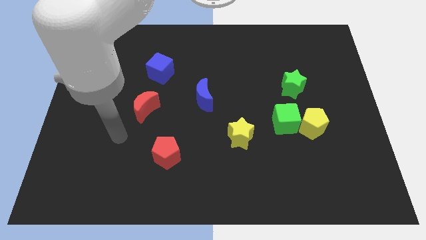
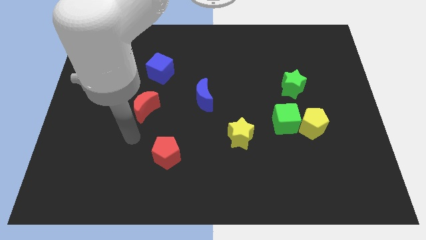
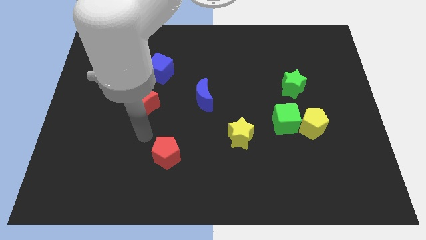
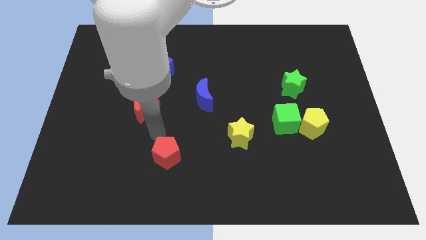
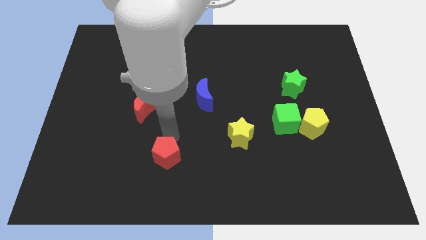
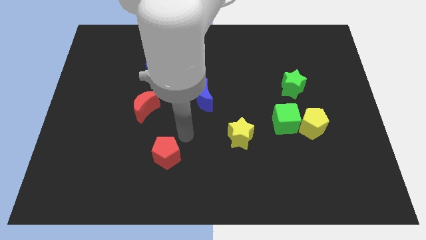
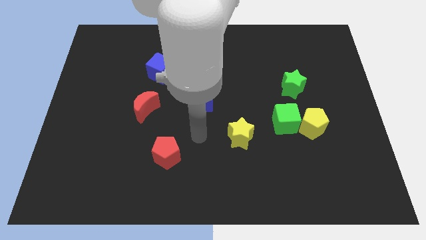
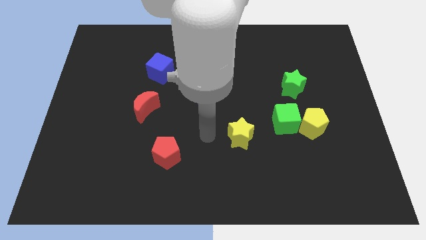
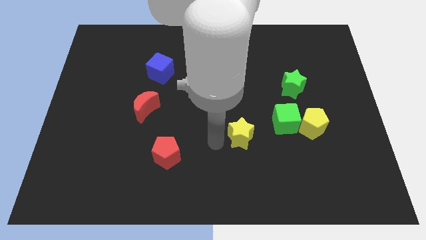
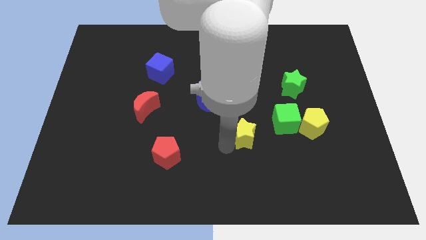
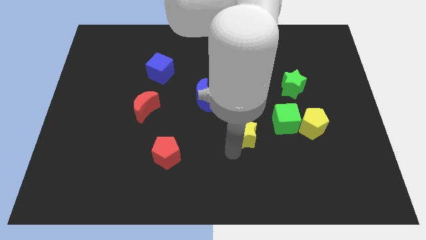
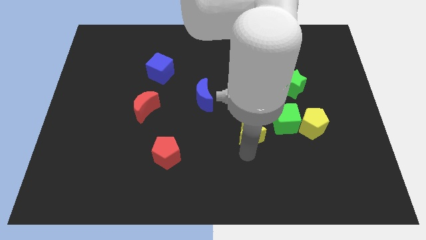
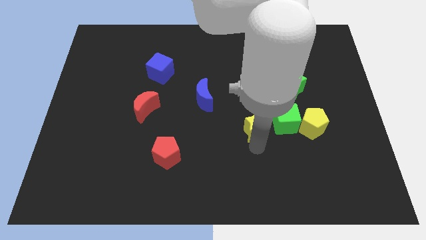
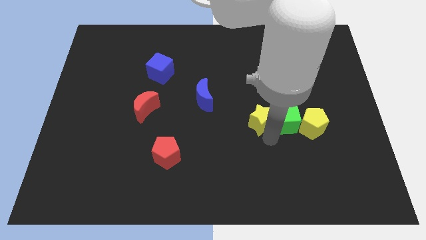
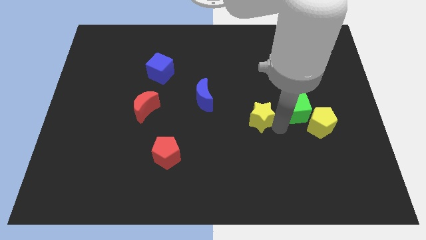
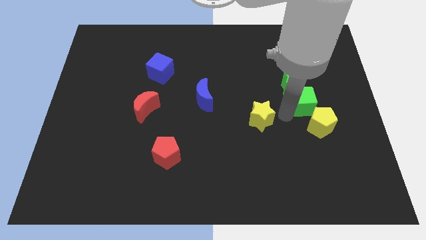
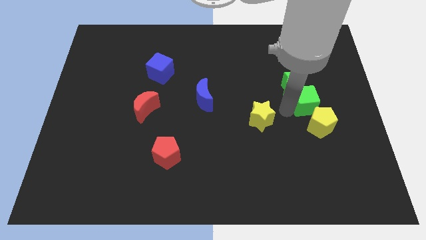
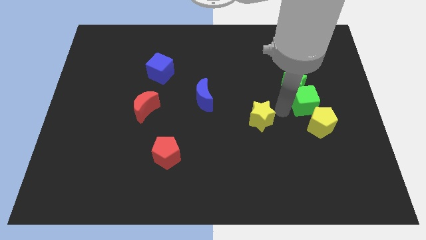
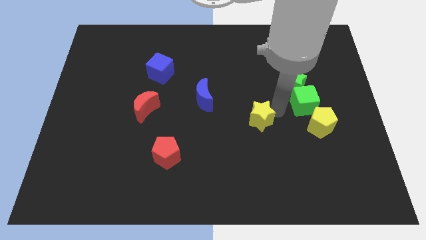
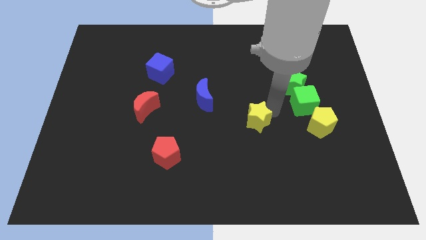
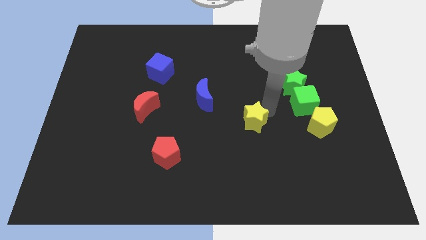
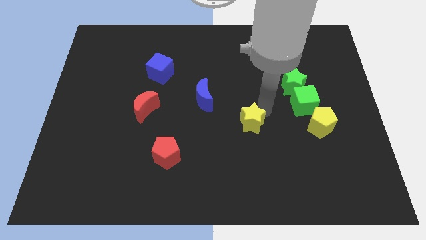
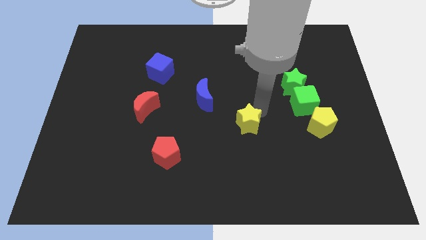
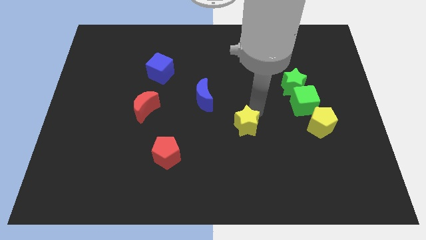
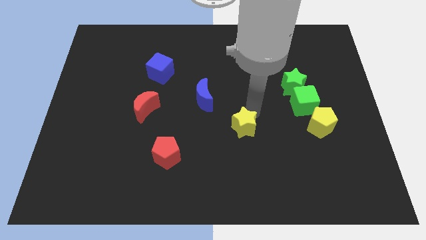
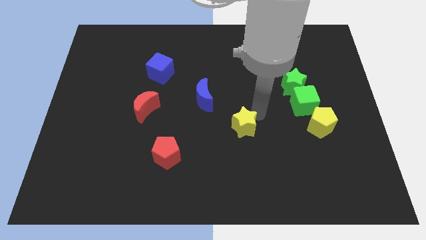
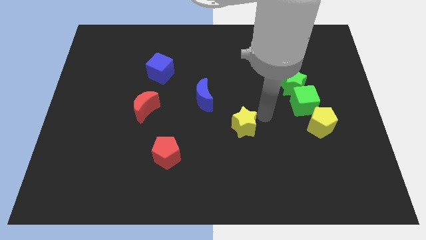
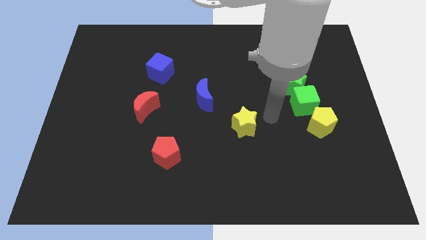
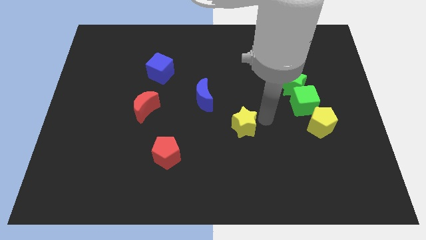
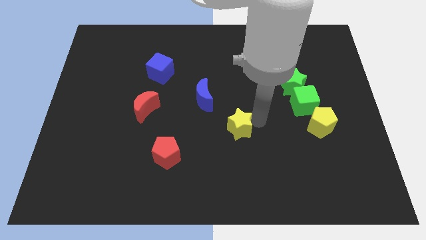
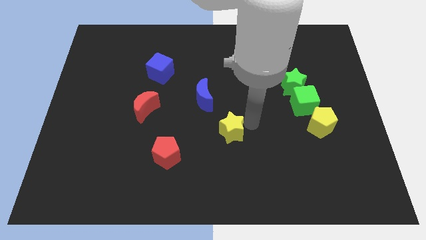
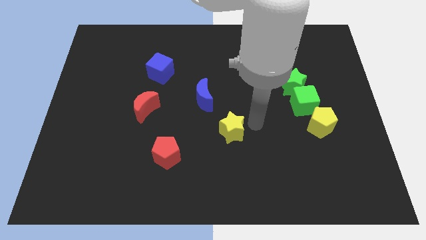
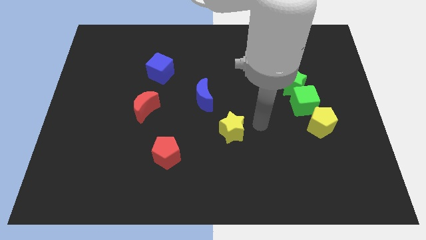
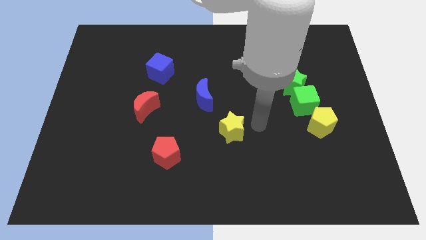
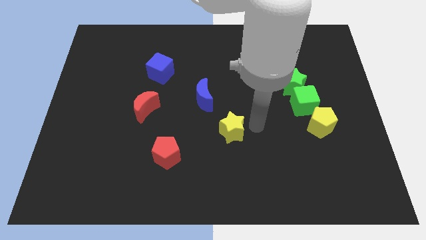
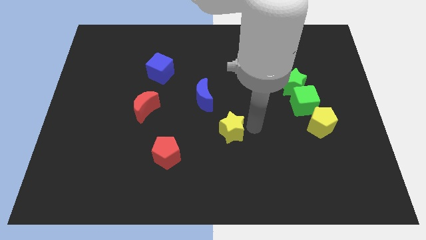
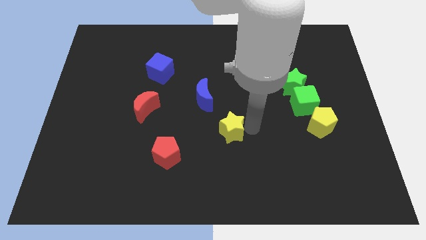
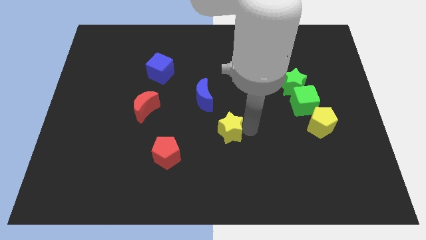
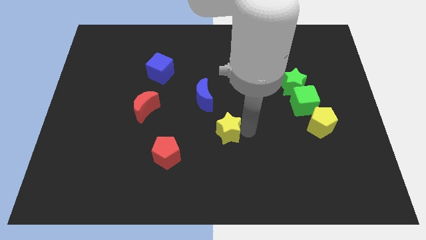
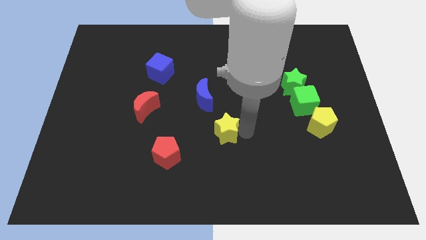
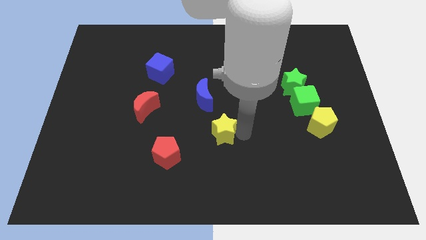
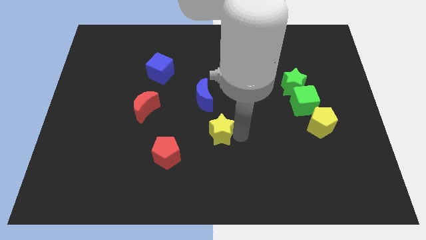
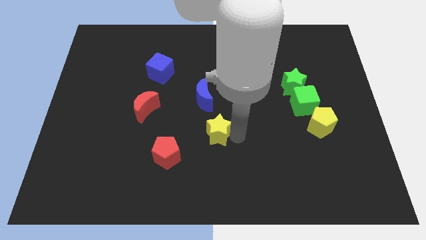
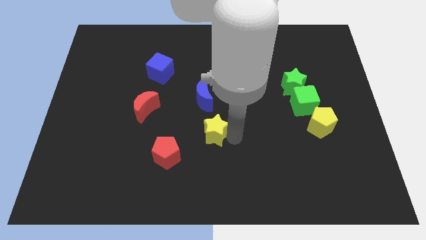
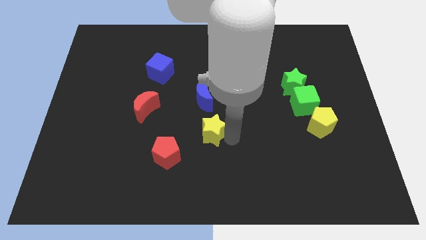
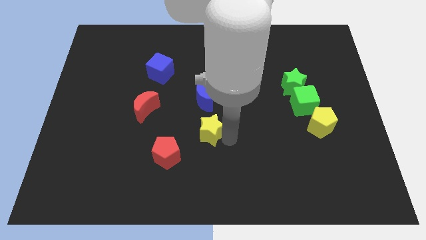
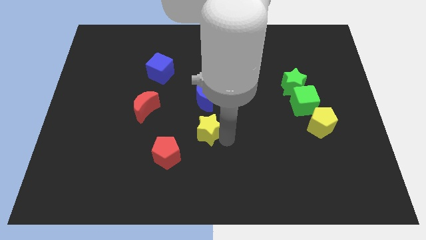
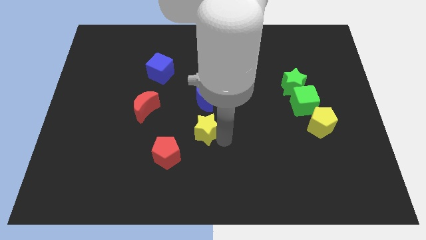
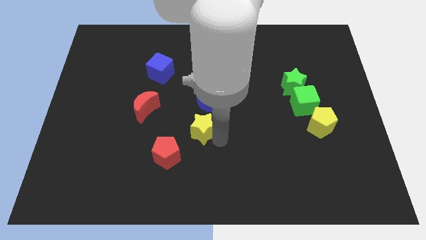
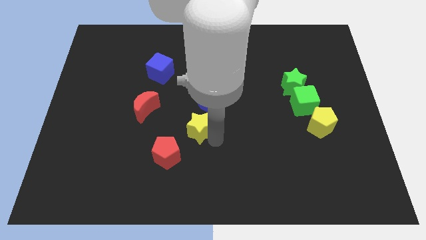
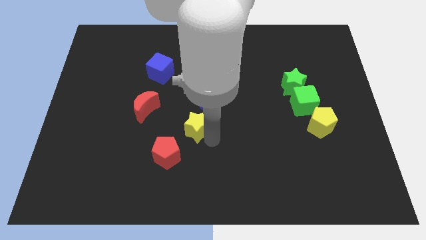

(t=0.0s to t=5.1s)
slightly slide the yellow star upwards and left diagonally

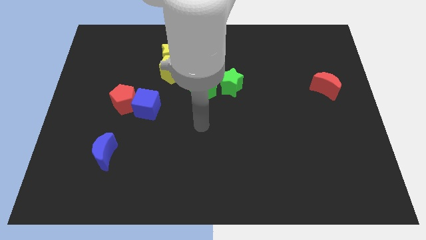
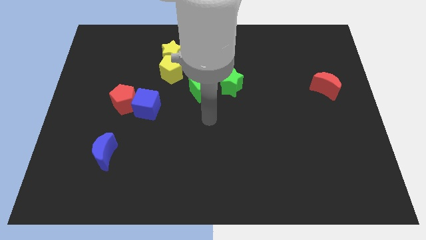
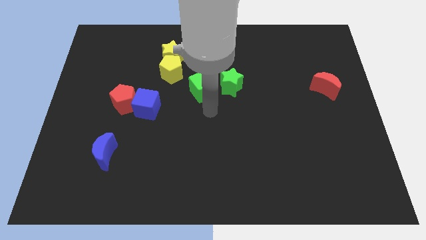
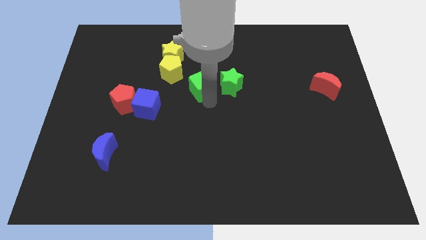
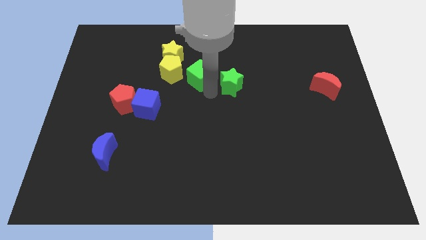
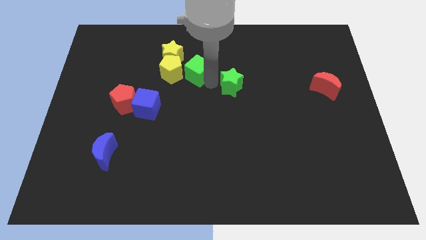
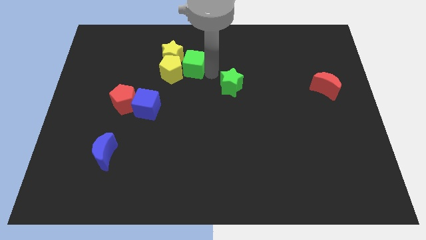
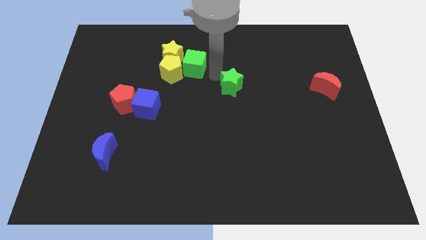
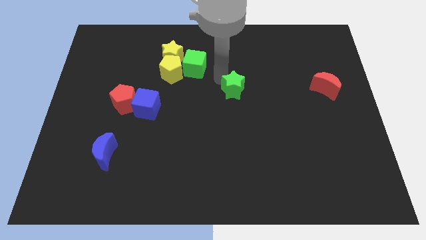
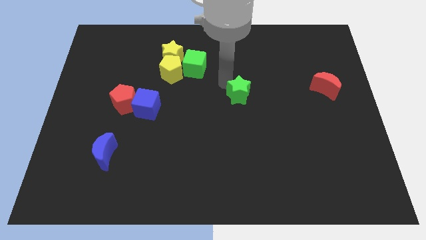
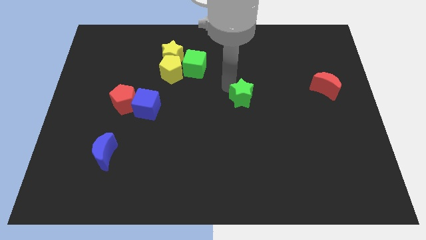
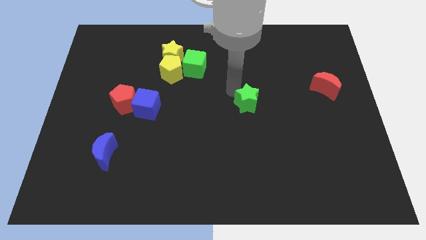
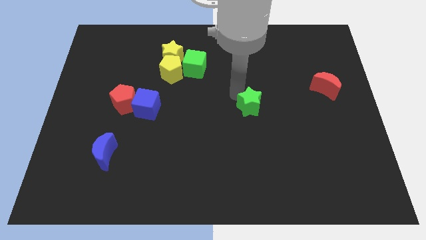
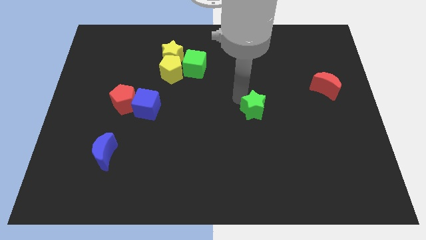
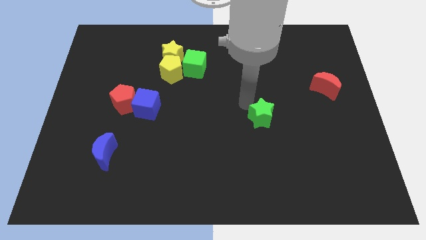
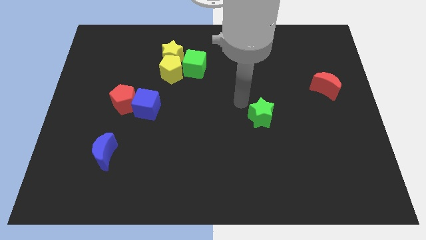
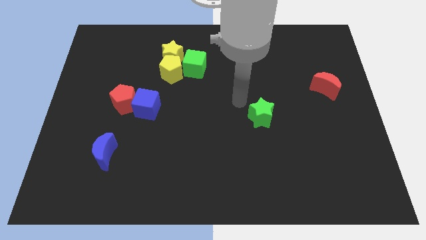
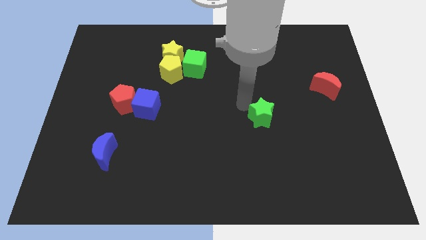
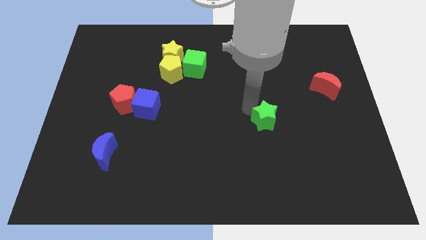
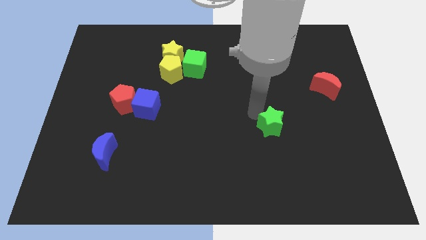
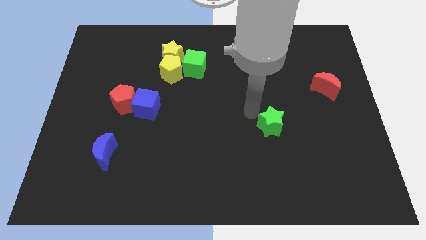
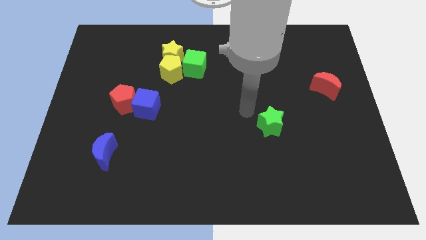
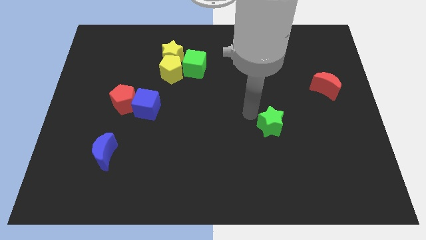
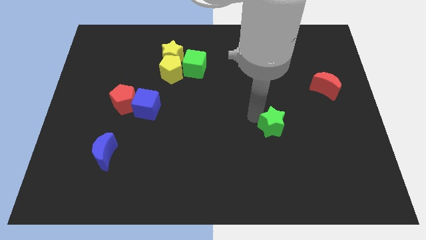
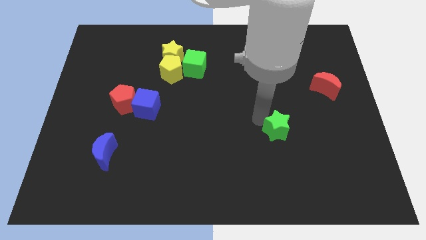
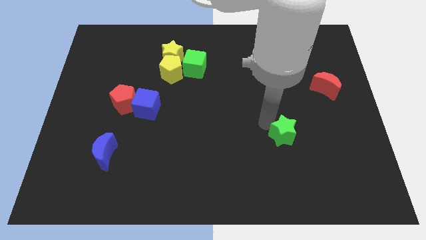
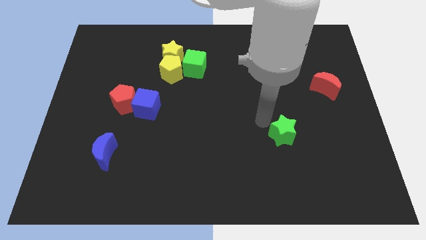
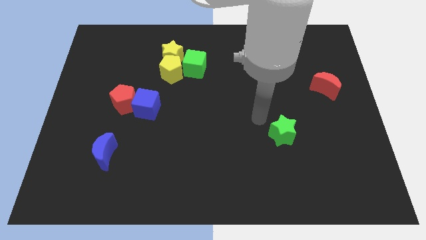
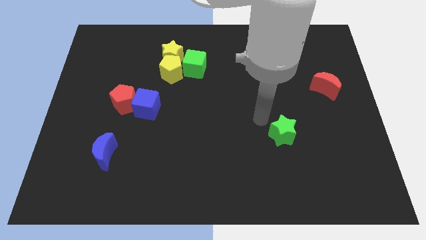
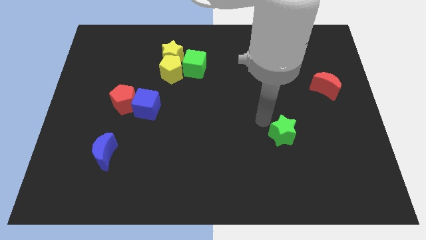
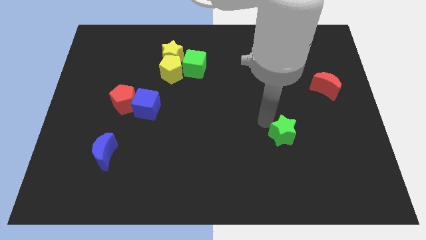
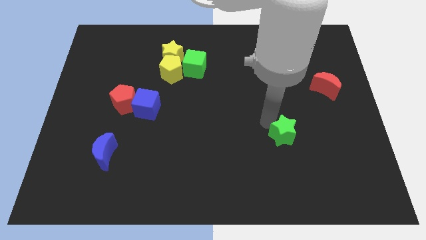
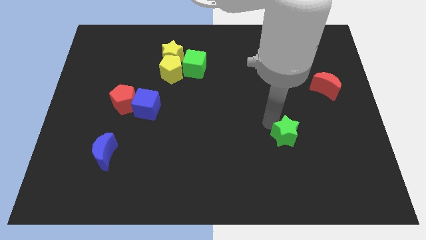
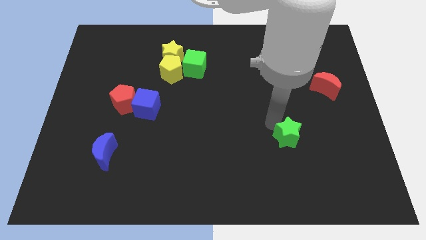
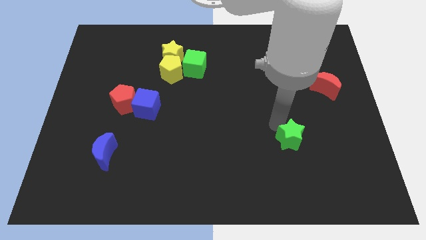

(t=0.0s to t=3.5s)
move the green star diagonally down and to the right

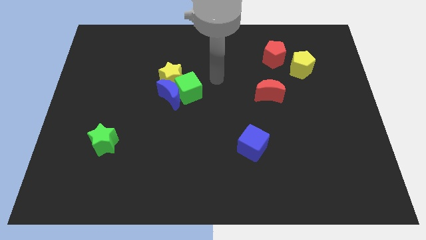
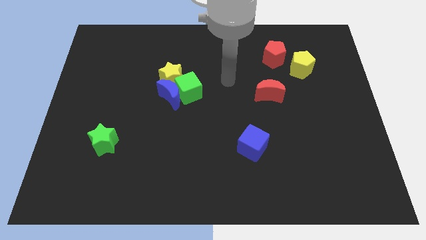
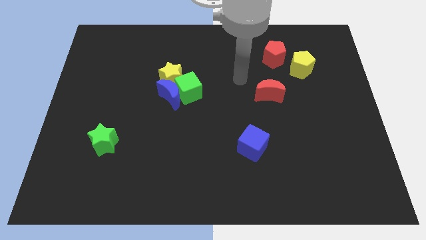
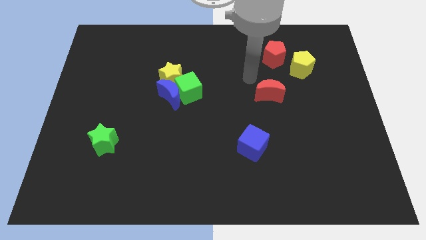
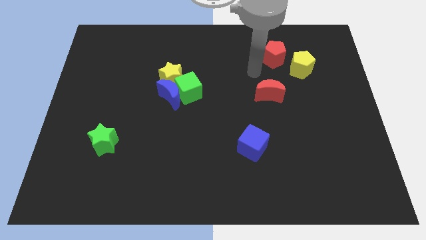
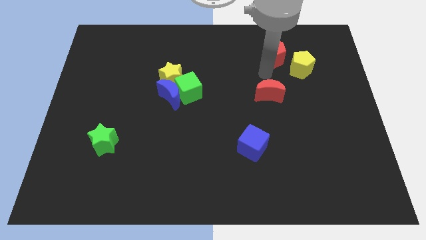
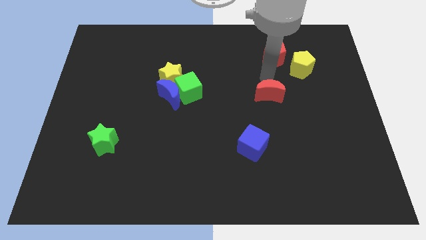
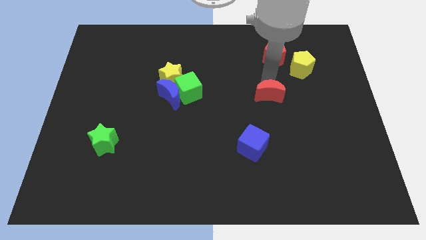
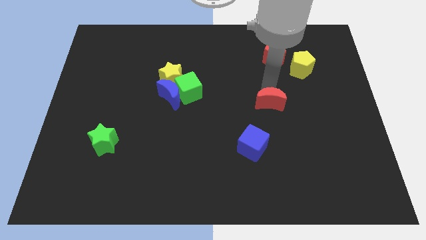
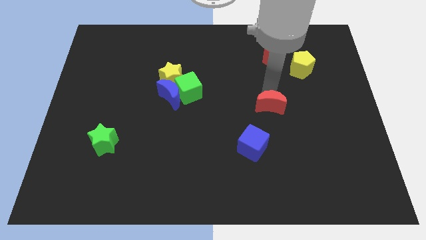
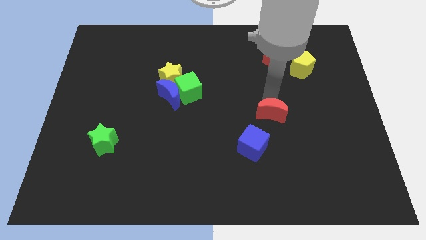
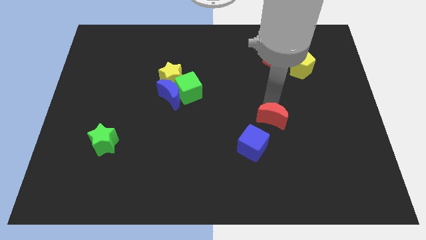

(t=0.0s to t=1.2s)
push the red moon slightly downwards
